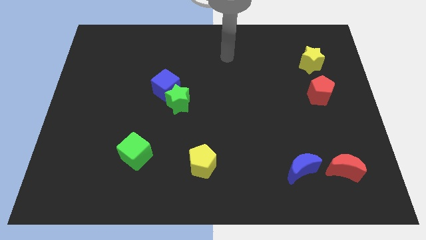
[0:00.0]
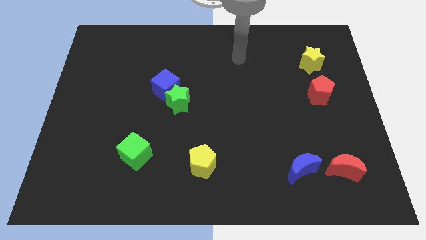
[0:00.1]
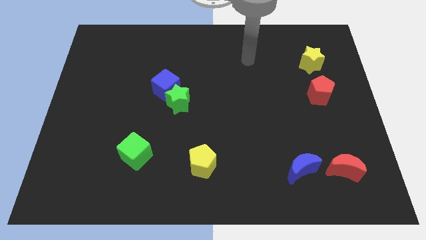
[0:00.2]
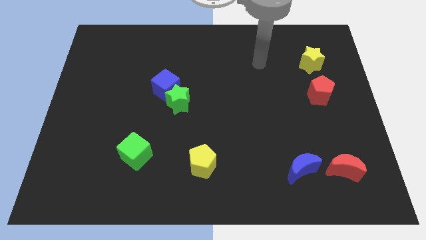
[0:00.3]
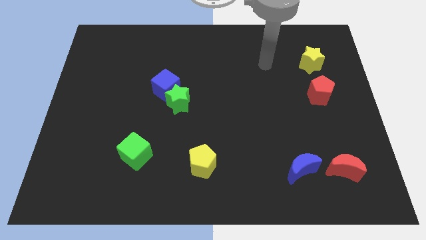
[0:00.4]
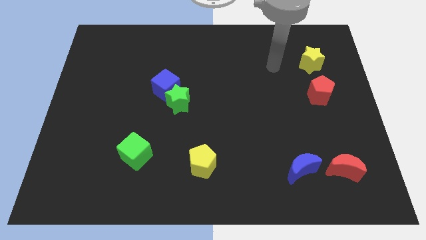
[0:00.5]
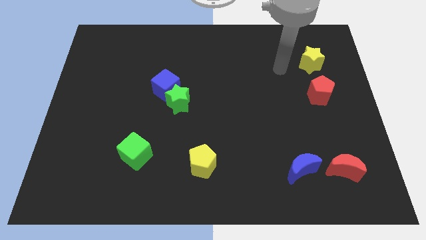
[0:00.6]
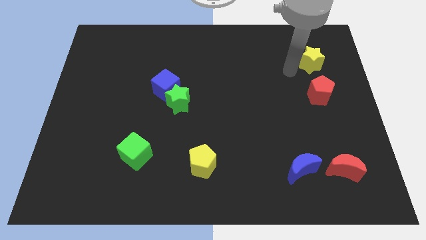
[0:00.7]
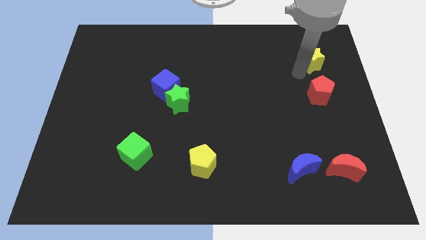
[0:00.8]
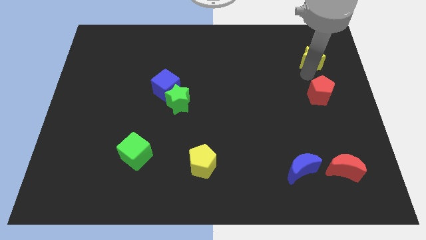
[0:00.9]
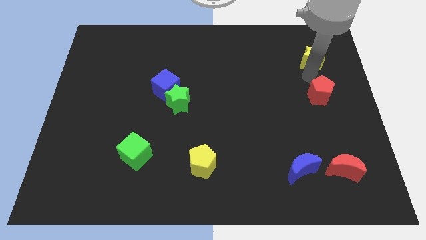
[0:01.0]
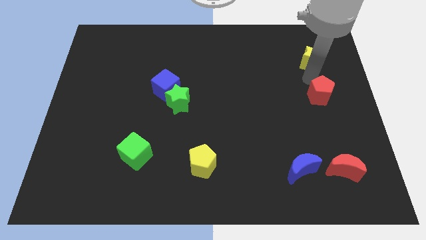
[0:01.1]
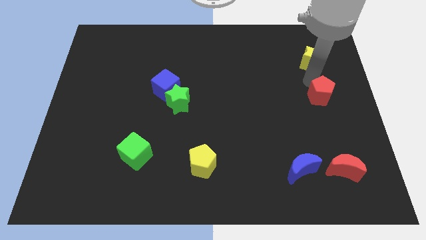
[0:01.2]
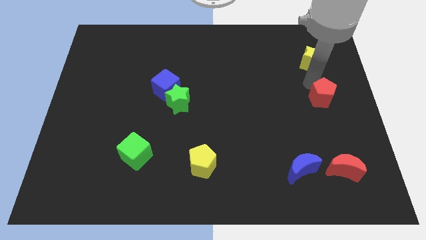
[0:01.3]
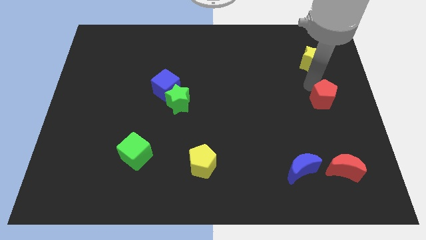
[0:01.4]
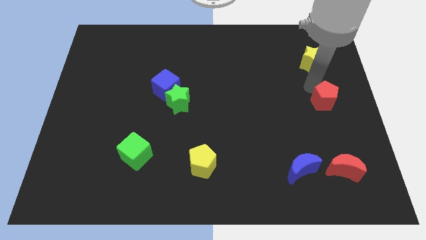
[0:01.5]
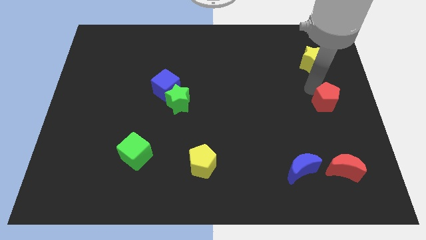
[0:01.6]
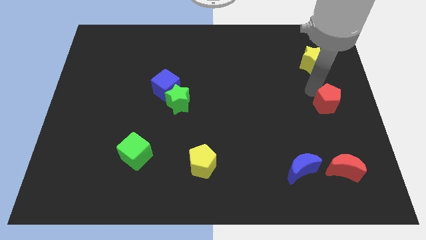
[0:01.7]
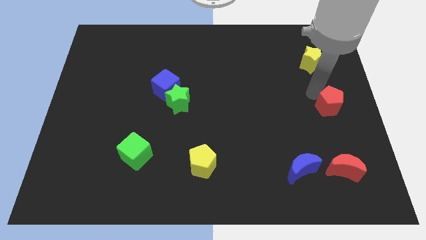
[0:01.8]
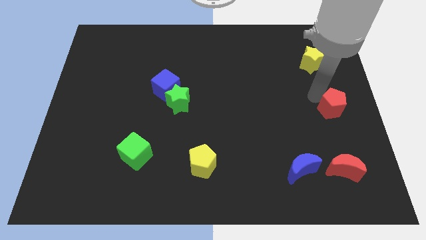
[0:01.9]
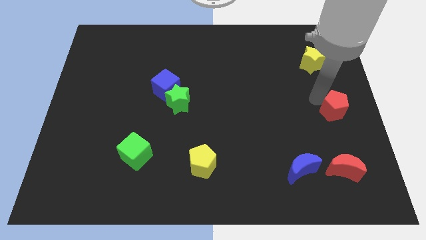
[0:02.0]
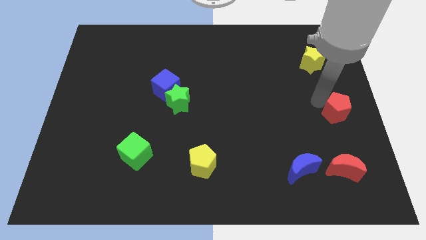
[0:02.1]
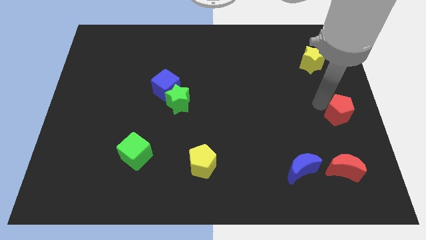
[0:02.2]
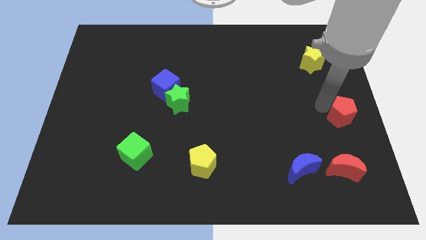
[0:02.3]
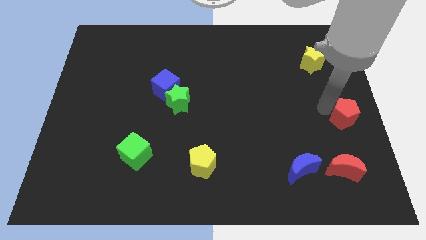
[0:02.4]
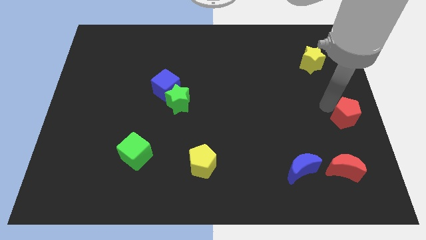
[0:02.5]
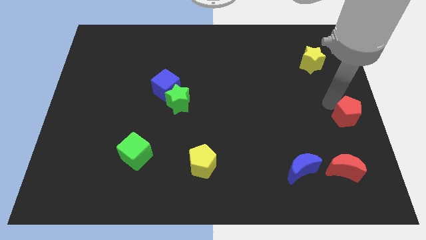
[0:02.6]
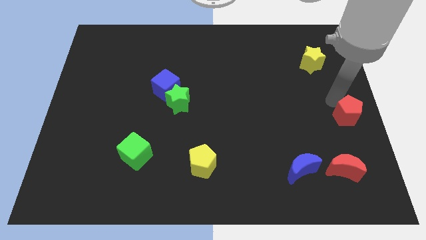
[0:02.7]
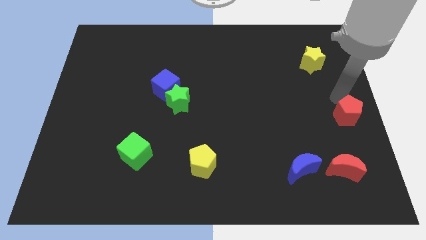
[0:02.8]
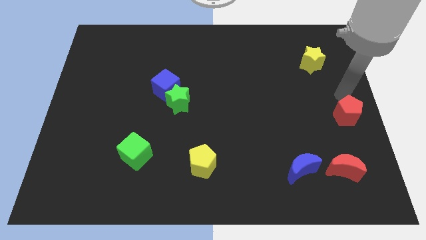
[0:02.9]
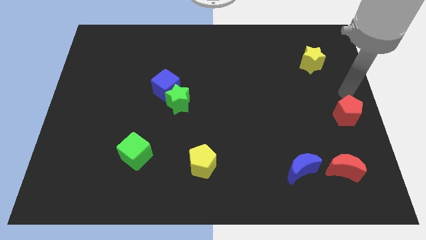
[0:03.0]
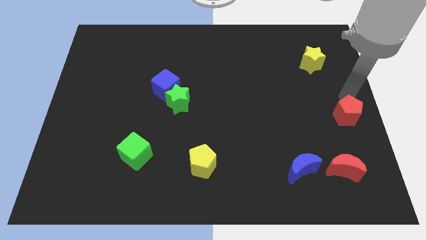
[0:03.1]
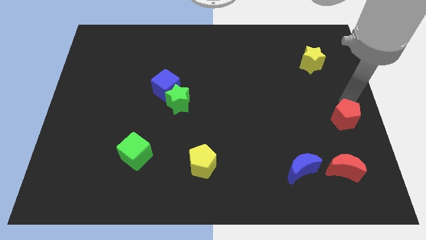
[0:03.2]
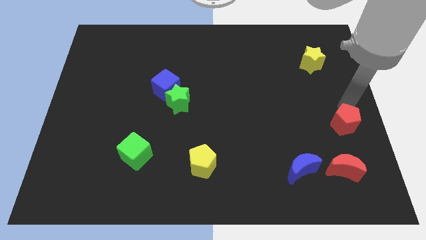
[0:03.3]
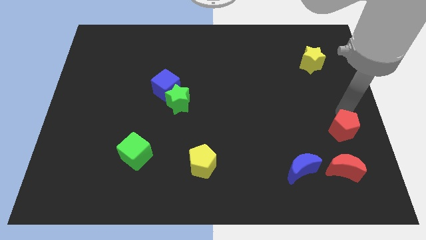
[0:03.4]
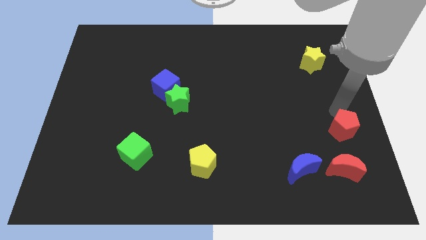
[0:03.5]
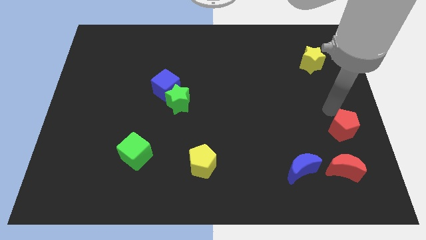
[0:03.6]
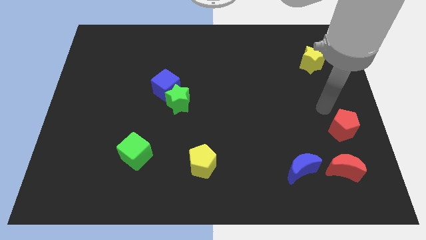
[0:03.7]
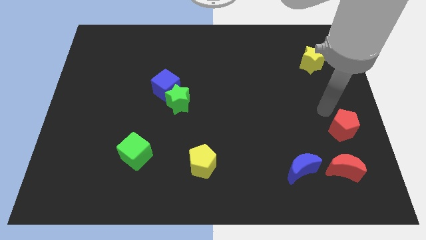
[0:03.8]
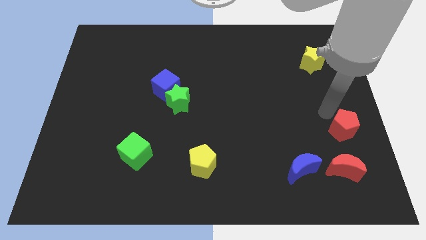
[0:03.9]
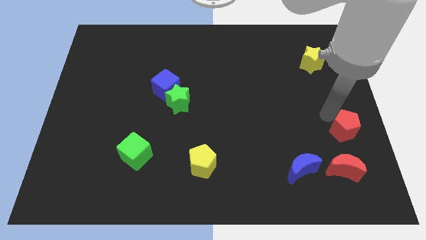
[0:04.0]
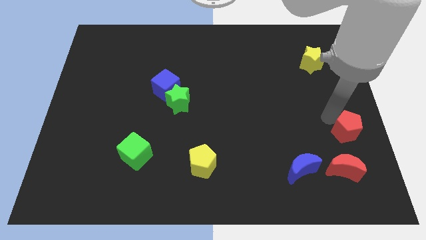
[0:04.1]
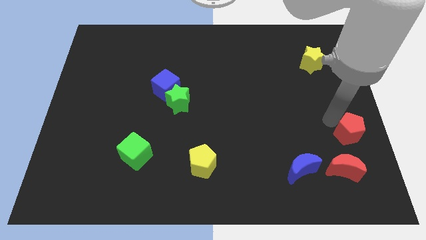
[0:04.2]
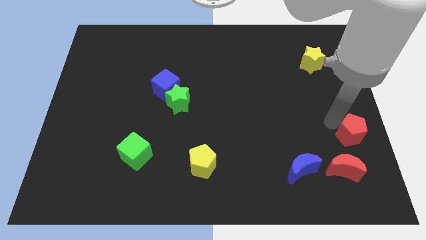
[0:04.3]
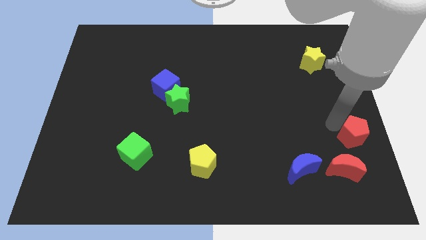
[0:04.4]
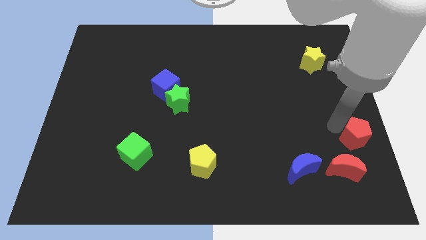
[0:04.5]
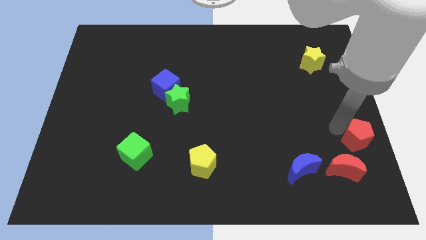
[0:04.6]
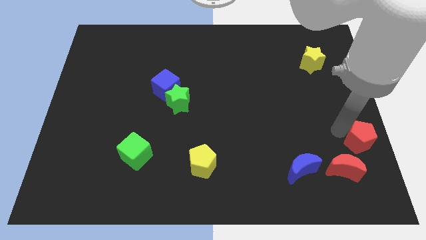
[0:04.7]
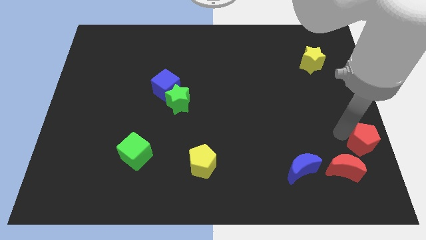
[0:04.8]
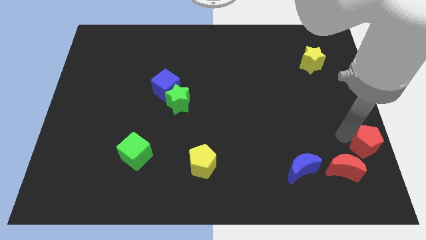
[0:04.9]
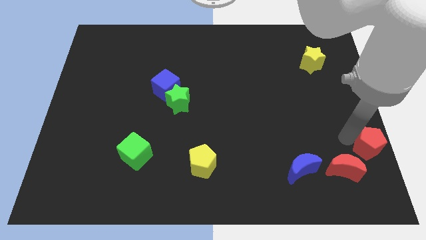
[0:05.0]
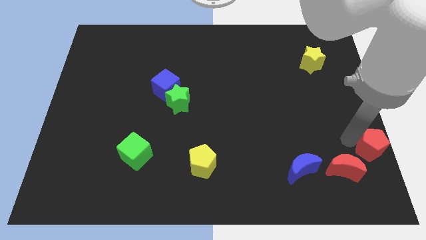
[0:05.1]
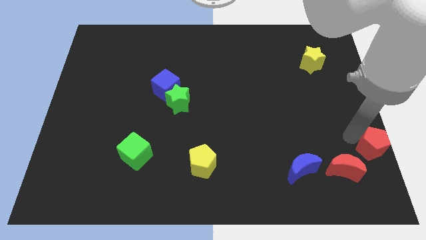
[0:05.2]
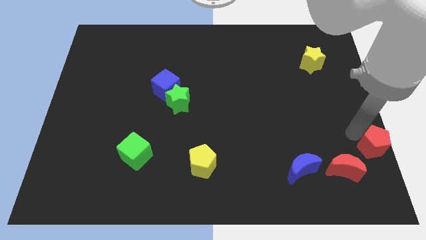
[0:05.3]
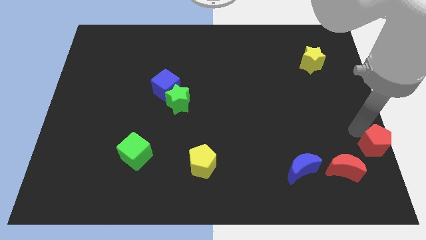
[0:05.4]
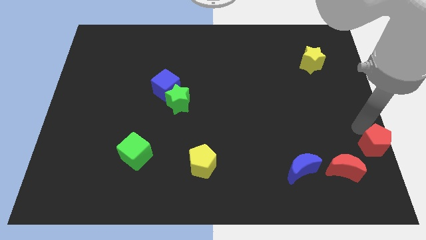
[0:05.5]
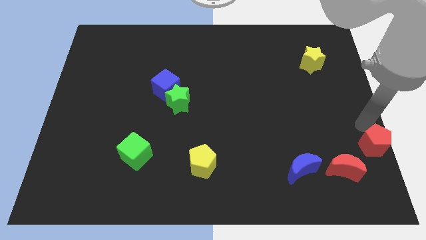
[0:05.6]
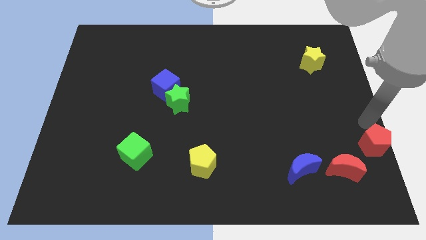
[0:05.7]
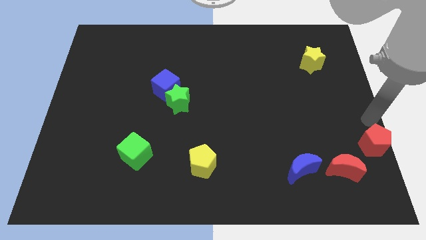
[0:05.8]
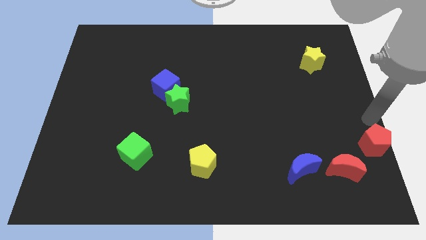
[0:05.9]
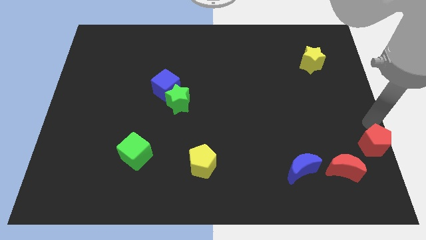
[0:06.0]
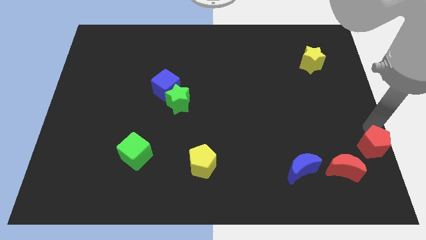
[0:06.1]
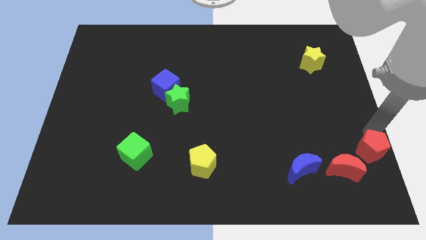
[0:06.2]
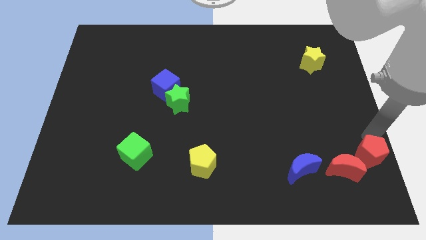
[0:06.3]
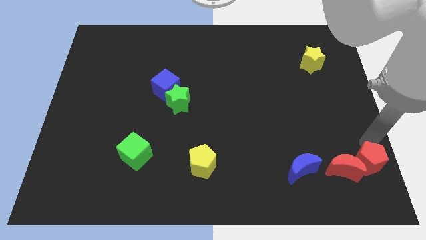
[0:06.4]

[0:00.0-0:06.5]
slide the red pentagon to the bottom right

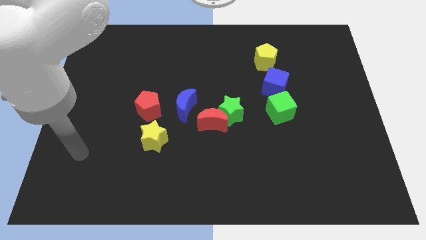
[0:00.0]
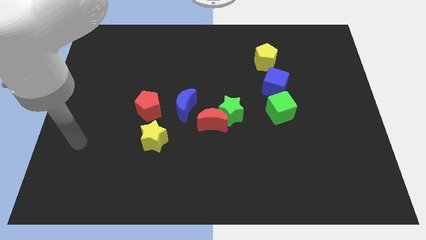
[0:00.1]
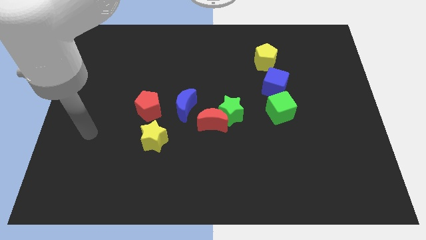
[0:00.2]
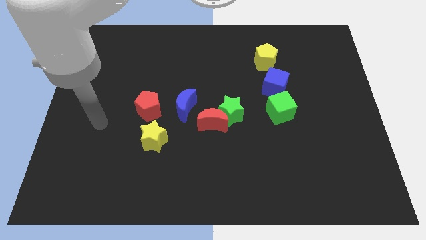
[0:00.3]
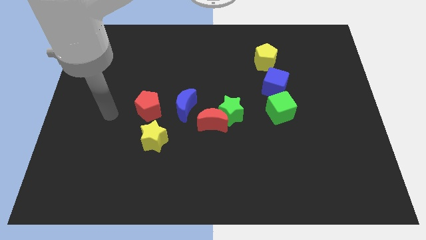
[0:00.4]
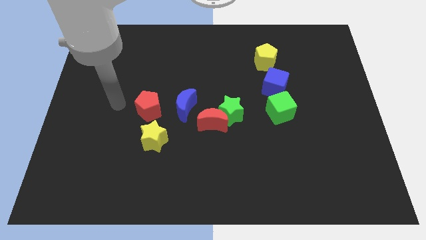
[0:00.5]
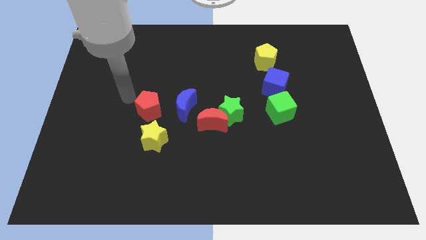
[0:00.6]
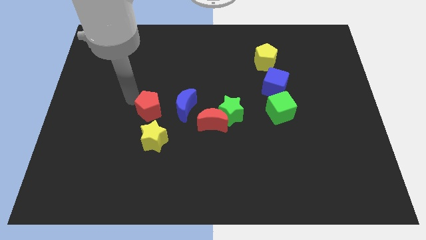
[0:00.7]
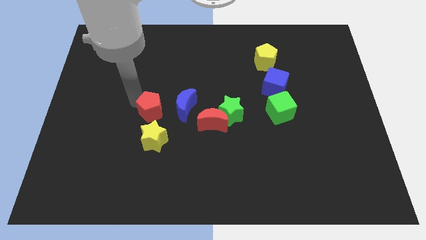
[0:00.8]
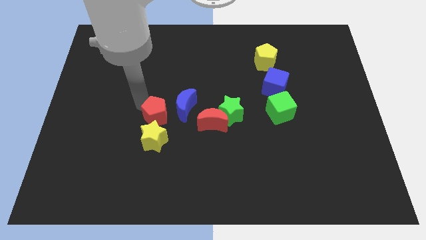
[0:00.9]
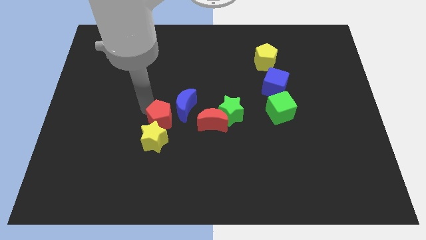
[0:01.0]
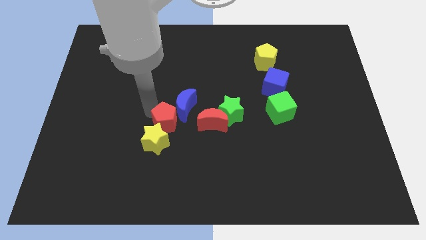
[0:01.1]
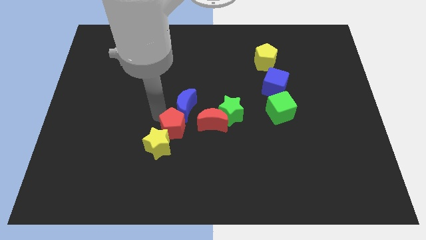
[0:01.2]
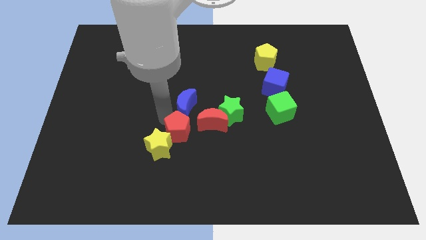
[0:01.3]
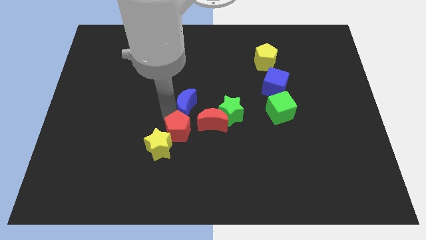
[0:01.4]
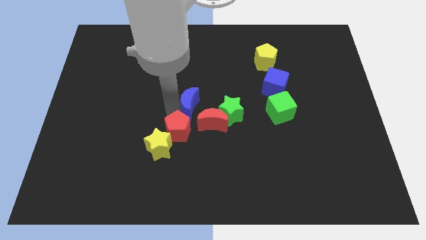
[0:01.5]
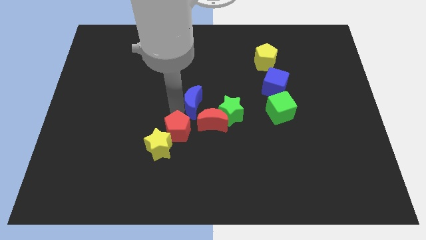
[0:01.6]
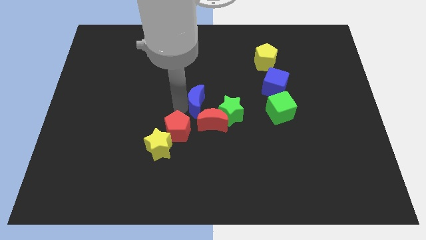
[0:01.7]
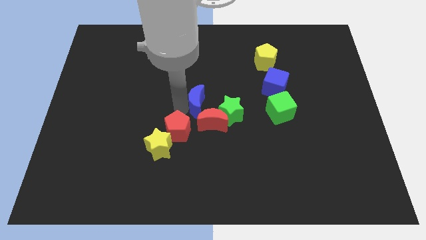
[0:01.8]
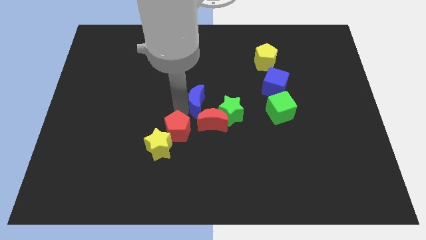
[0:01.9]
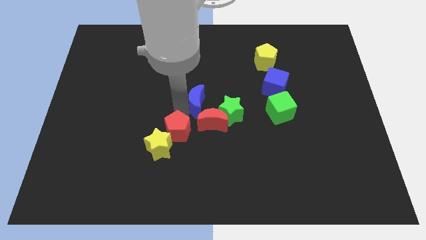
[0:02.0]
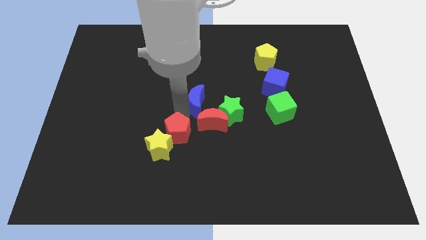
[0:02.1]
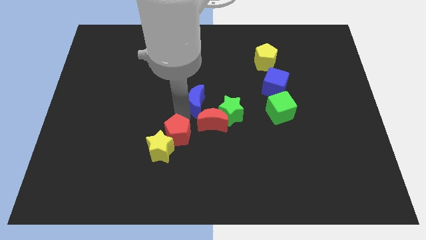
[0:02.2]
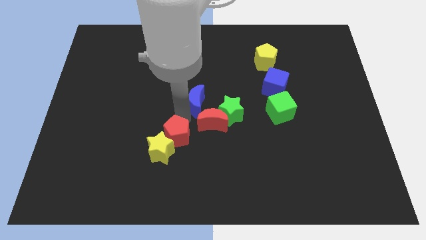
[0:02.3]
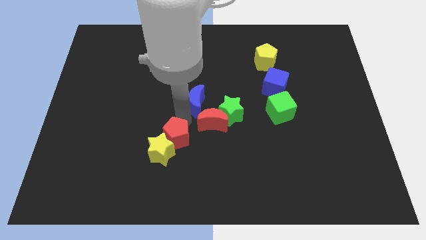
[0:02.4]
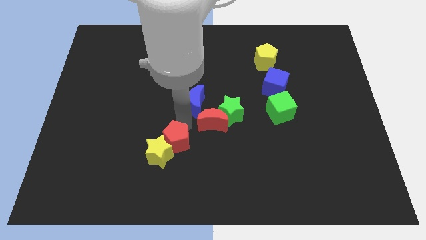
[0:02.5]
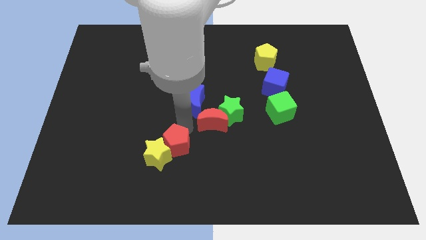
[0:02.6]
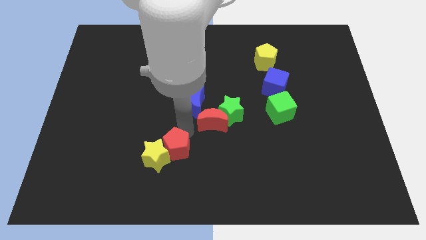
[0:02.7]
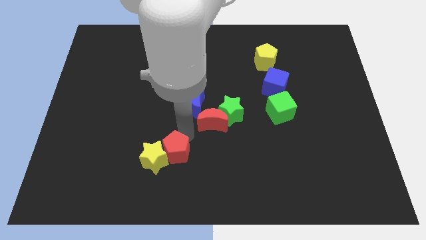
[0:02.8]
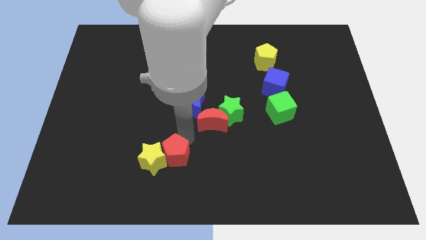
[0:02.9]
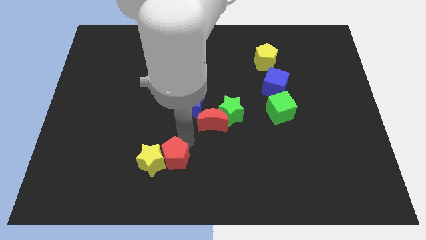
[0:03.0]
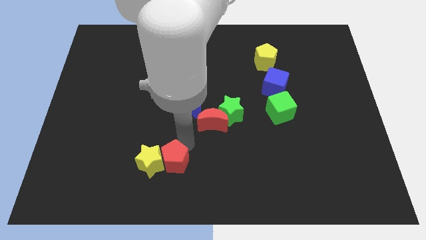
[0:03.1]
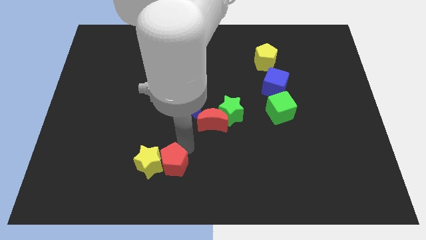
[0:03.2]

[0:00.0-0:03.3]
put the red pentagon to the bottom side
